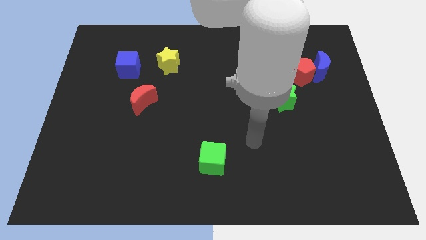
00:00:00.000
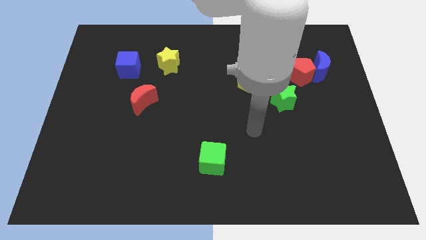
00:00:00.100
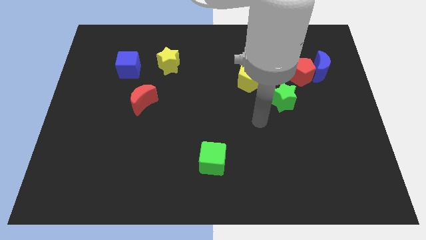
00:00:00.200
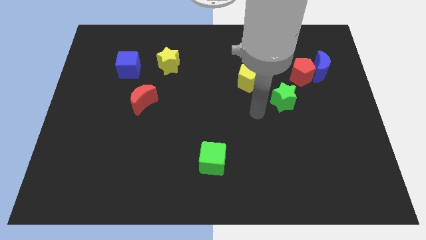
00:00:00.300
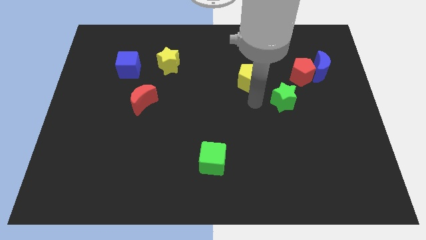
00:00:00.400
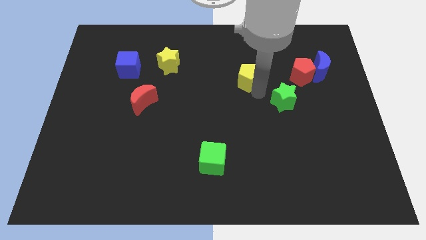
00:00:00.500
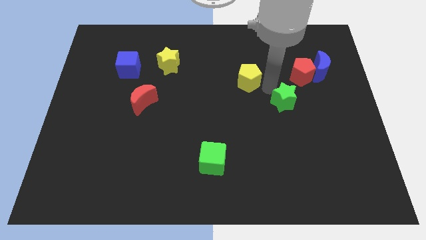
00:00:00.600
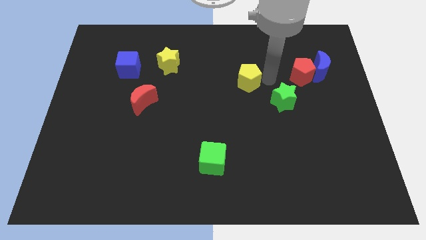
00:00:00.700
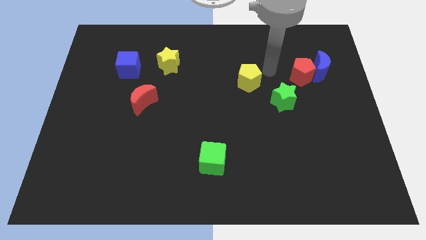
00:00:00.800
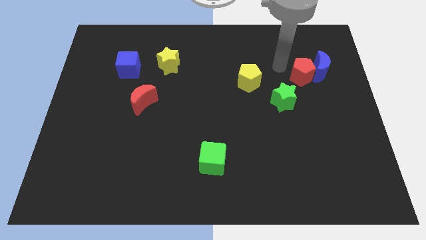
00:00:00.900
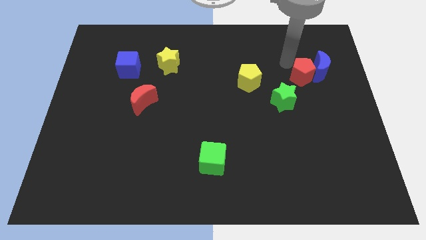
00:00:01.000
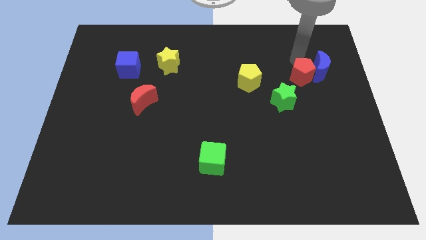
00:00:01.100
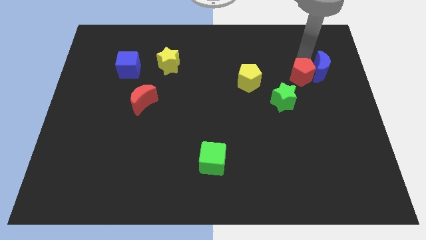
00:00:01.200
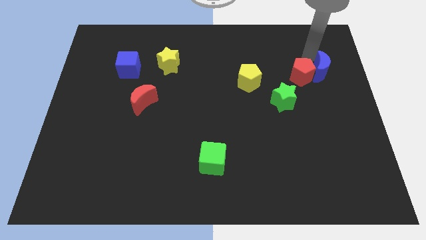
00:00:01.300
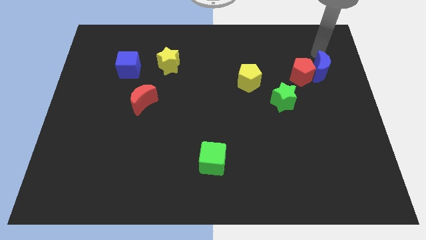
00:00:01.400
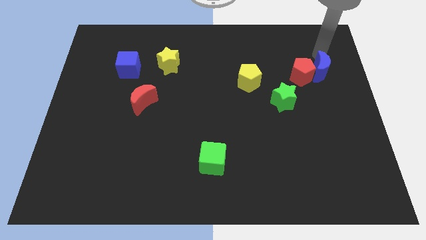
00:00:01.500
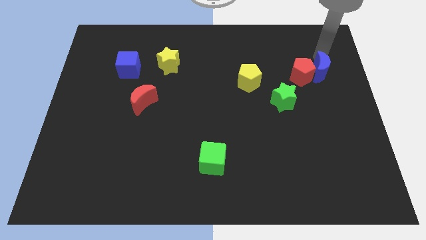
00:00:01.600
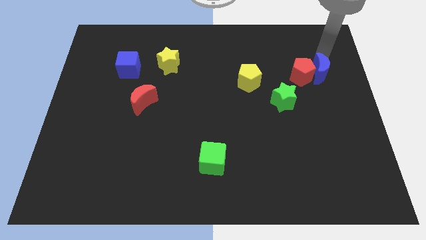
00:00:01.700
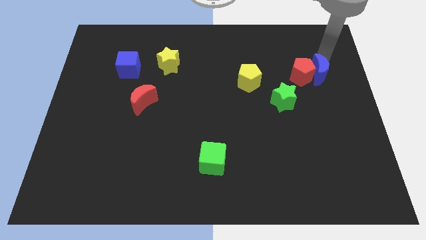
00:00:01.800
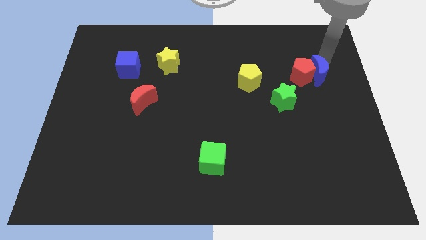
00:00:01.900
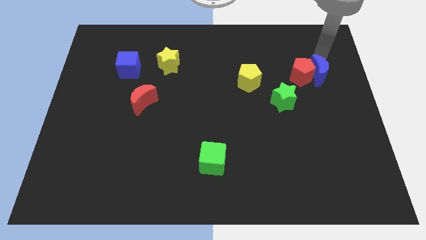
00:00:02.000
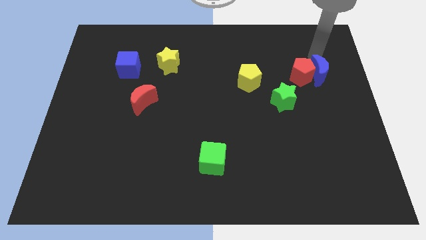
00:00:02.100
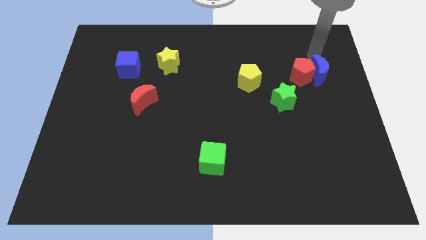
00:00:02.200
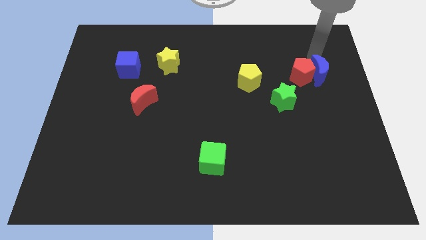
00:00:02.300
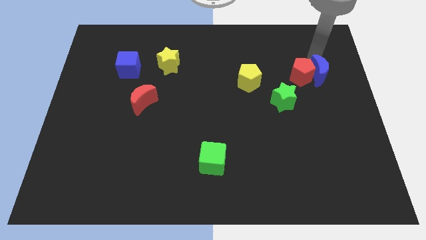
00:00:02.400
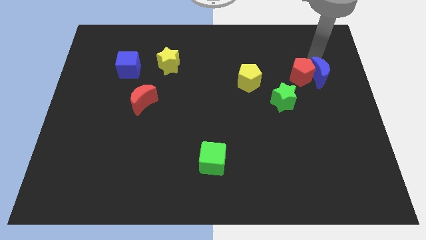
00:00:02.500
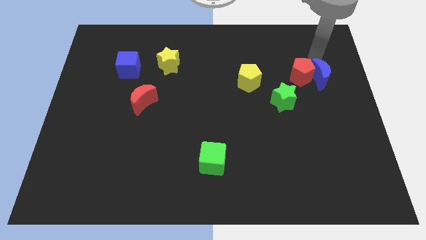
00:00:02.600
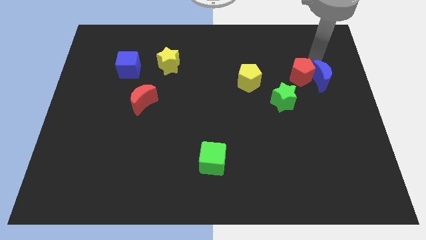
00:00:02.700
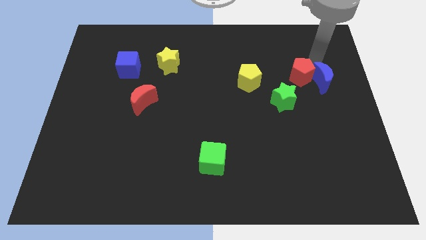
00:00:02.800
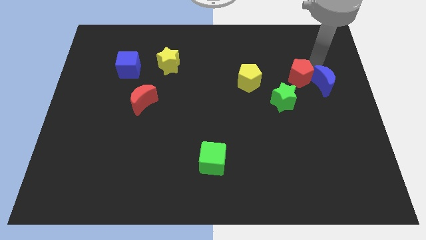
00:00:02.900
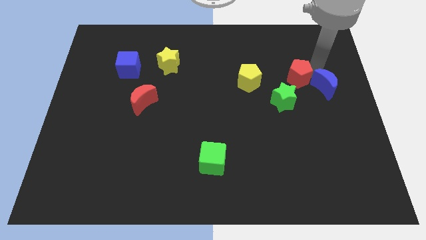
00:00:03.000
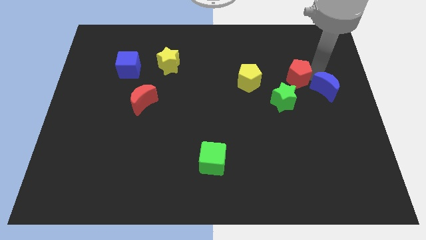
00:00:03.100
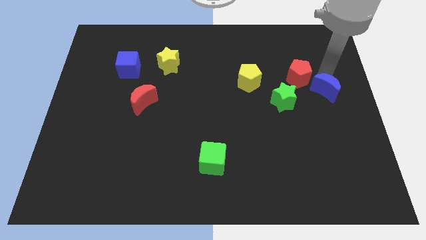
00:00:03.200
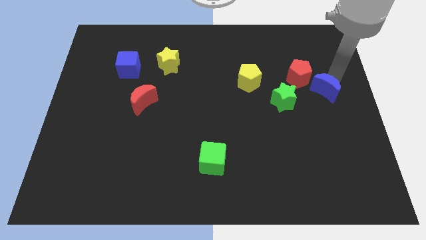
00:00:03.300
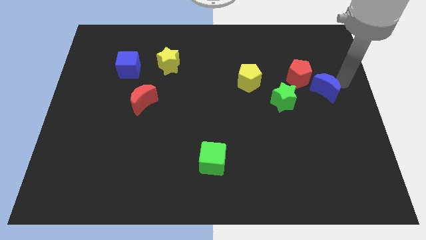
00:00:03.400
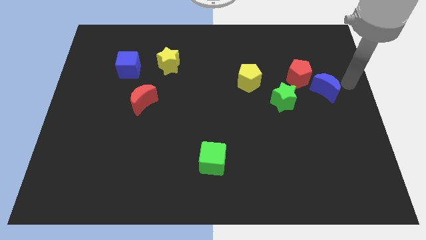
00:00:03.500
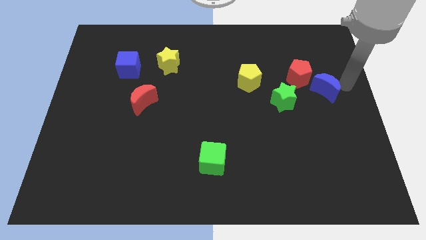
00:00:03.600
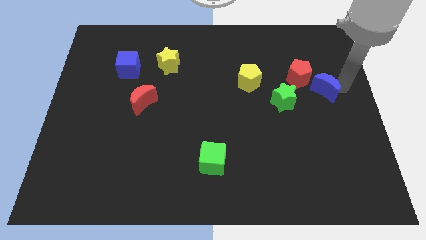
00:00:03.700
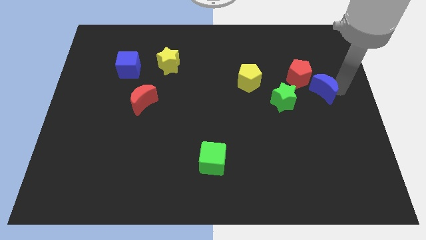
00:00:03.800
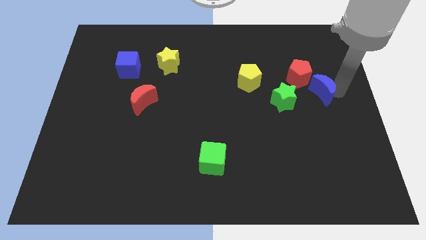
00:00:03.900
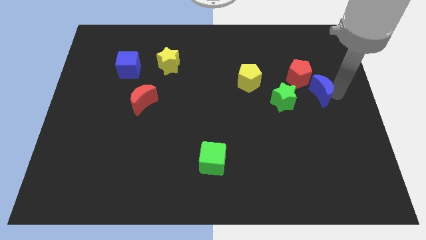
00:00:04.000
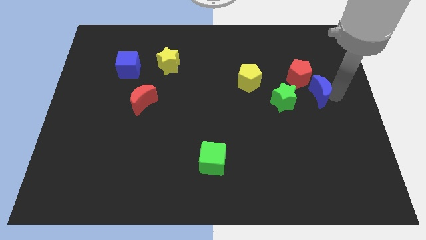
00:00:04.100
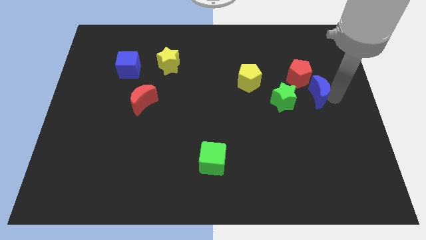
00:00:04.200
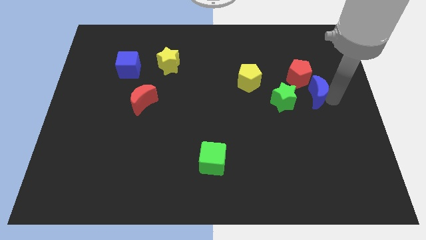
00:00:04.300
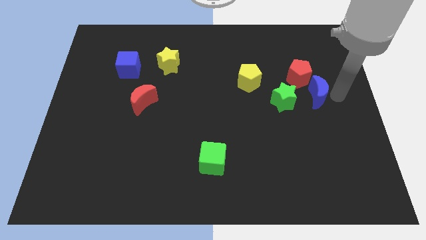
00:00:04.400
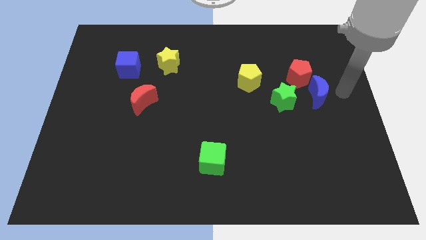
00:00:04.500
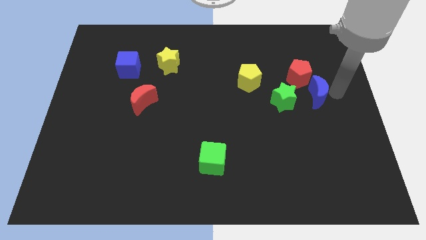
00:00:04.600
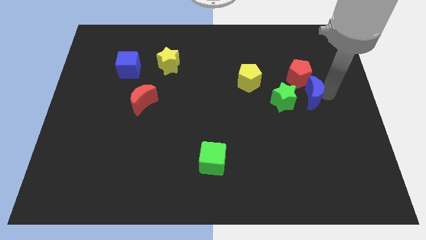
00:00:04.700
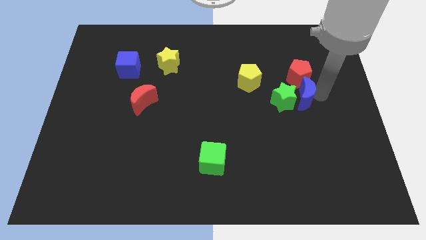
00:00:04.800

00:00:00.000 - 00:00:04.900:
slide the blue moon towards the green star

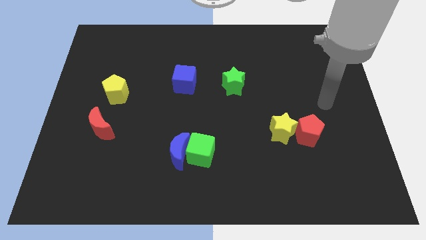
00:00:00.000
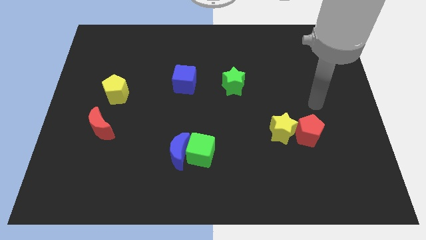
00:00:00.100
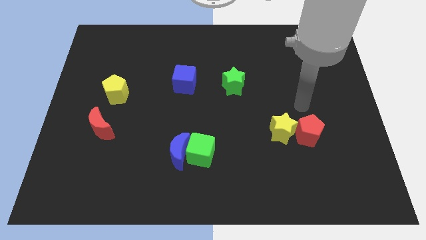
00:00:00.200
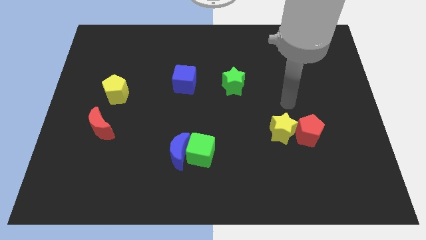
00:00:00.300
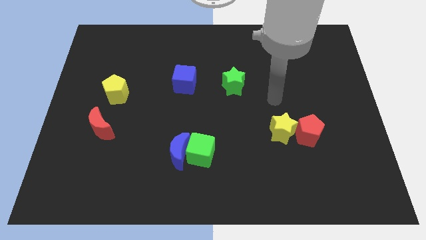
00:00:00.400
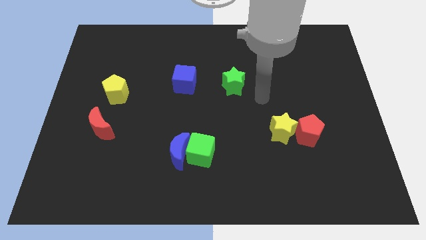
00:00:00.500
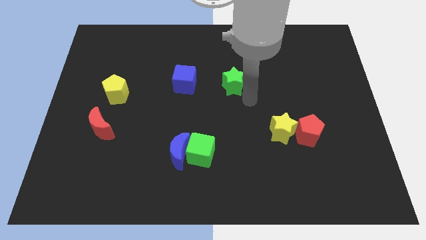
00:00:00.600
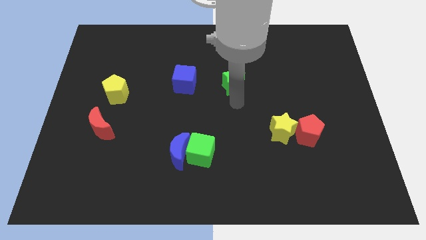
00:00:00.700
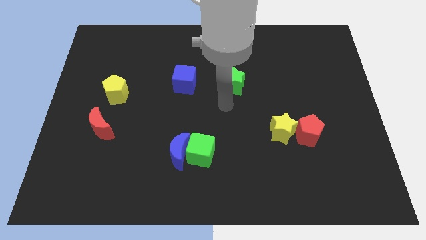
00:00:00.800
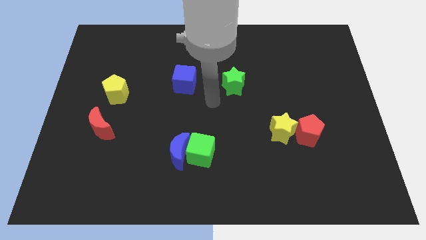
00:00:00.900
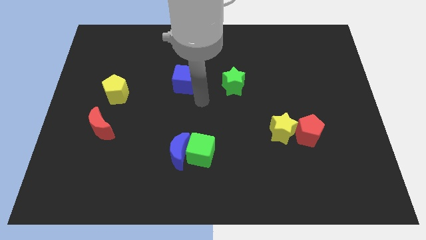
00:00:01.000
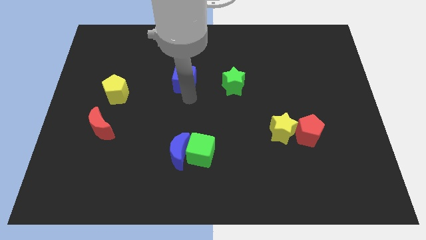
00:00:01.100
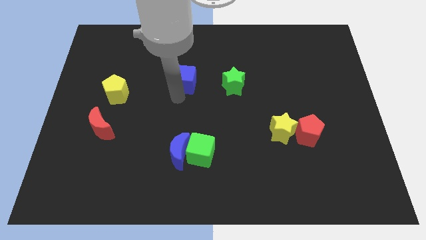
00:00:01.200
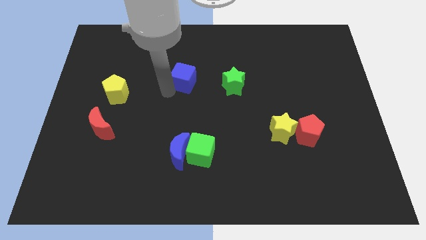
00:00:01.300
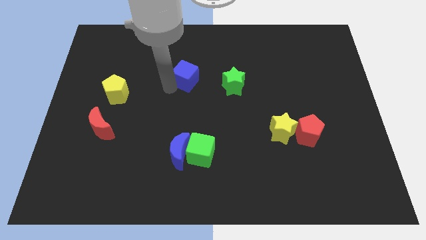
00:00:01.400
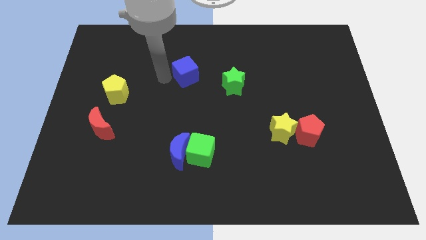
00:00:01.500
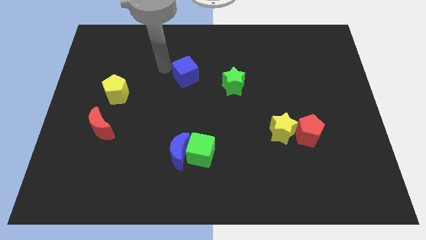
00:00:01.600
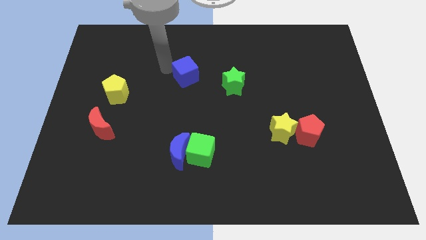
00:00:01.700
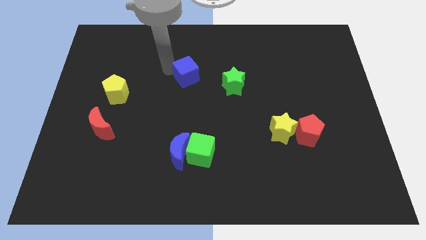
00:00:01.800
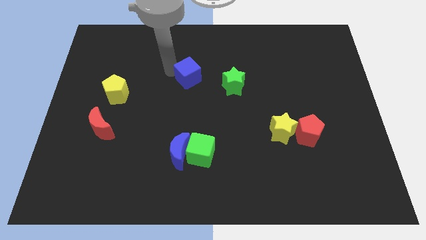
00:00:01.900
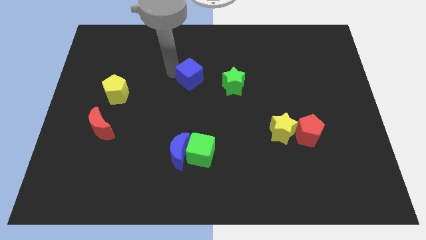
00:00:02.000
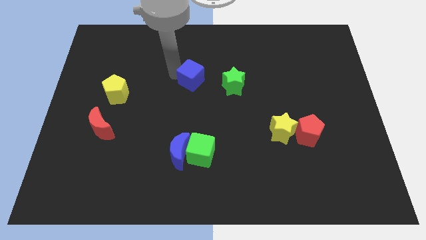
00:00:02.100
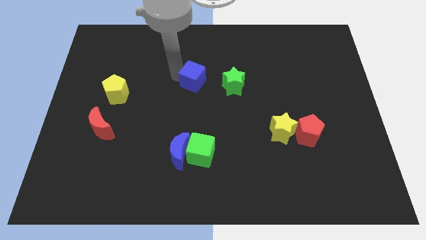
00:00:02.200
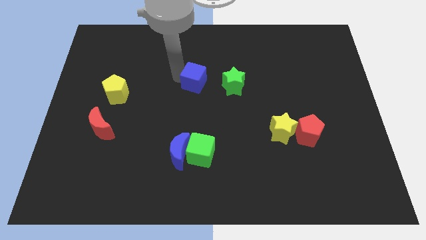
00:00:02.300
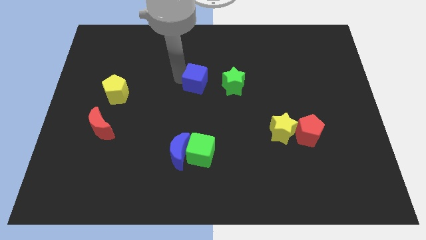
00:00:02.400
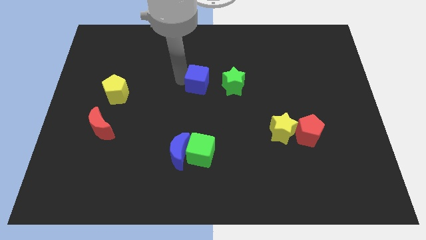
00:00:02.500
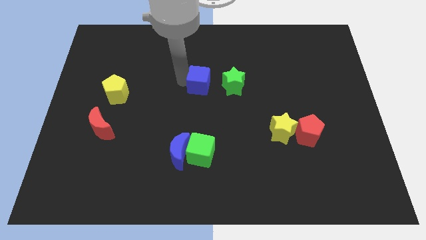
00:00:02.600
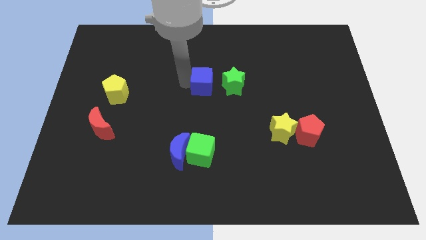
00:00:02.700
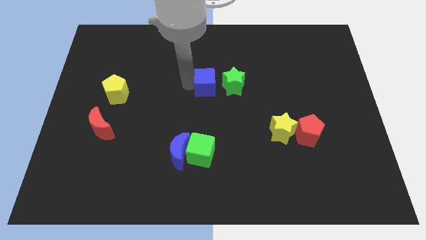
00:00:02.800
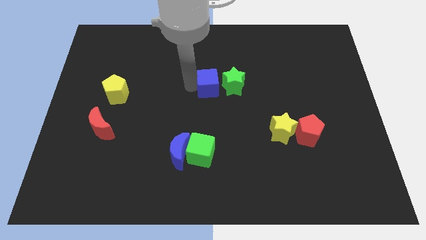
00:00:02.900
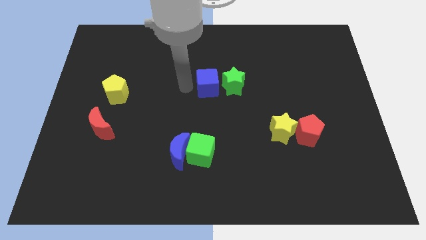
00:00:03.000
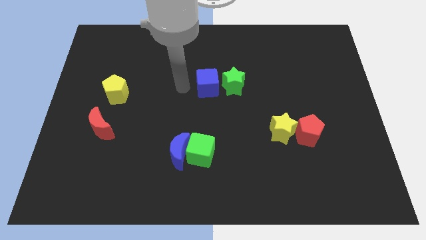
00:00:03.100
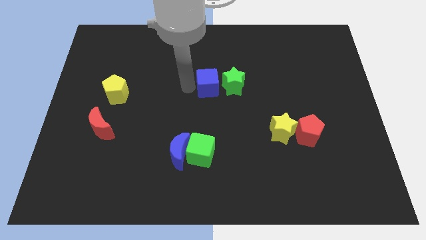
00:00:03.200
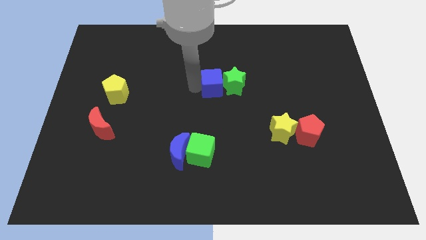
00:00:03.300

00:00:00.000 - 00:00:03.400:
move the blue cube towards the green star
